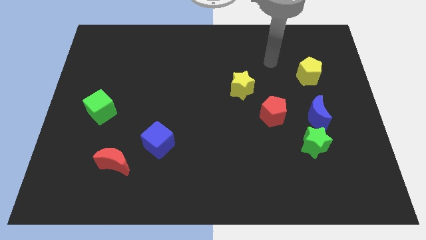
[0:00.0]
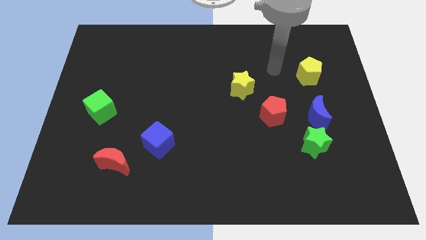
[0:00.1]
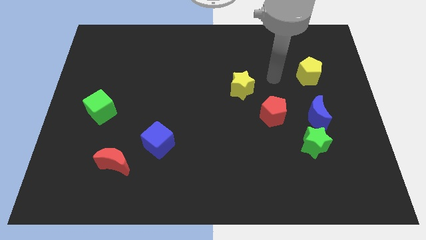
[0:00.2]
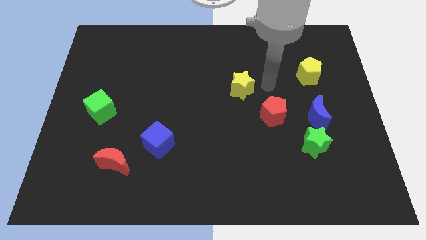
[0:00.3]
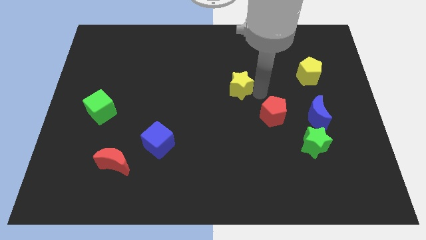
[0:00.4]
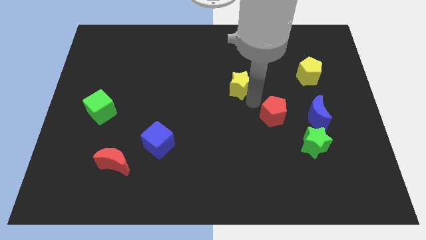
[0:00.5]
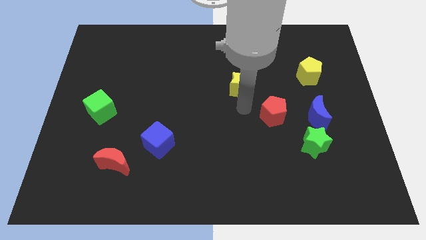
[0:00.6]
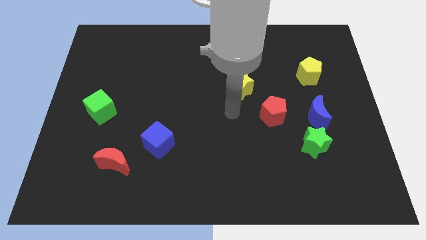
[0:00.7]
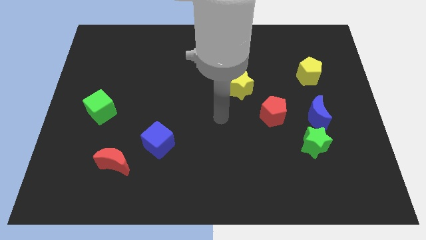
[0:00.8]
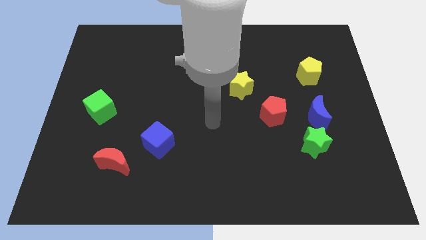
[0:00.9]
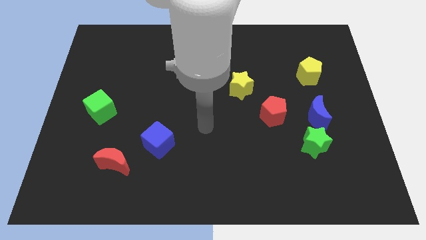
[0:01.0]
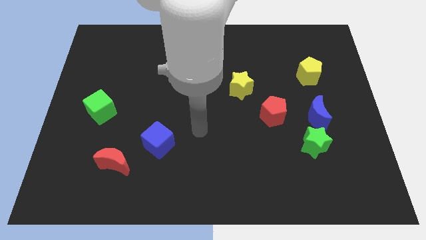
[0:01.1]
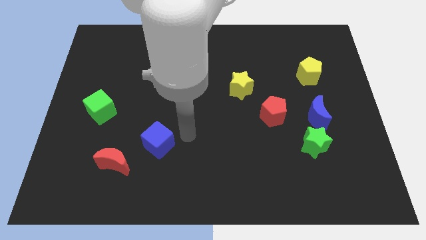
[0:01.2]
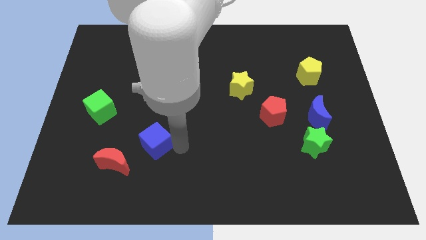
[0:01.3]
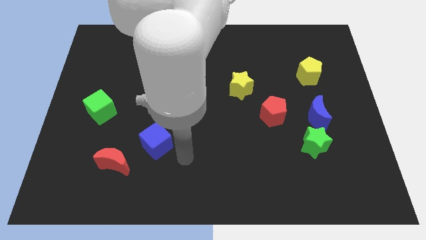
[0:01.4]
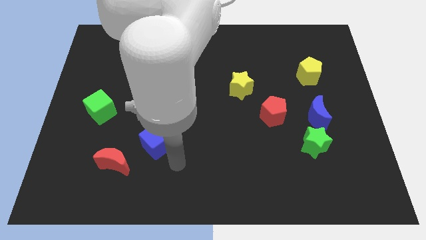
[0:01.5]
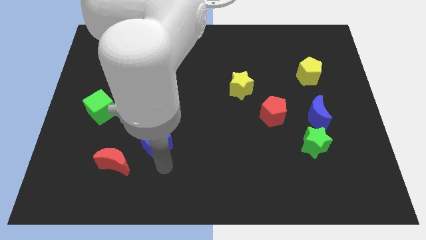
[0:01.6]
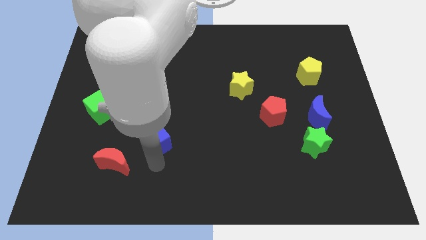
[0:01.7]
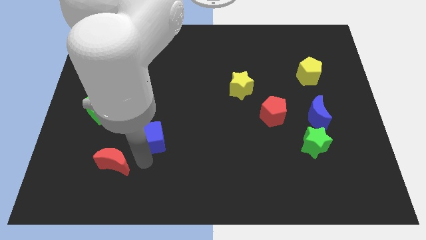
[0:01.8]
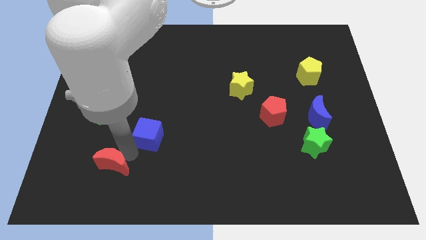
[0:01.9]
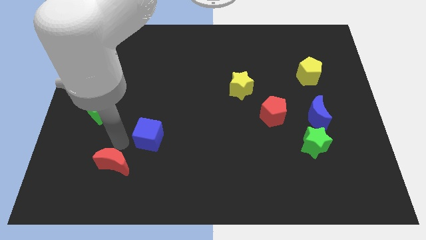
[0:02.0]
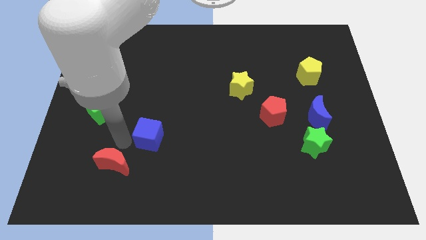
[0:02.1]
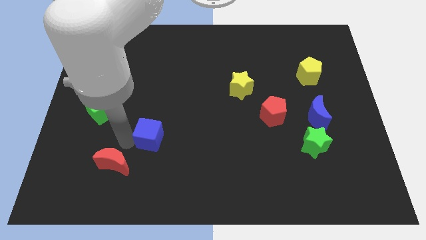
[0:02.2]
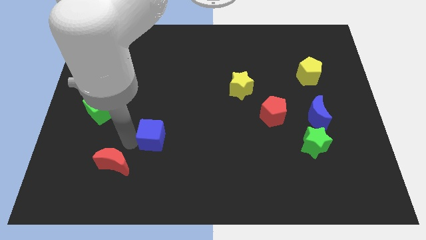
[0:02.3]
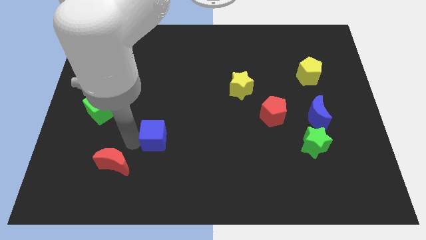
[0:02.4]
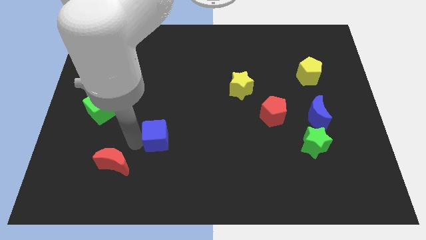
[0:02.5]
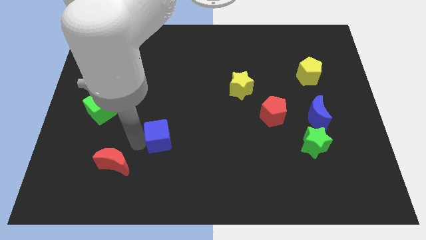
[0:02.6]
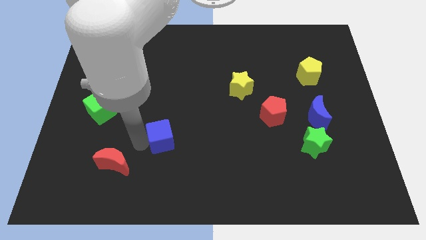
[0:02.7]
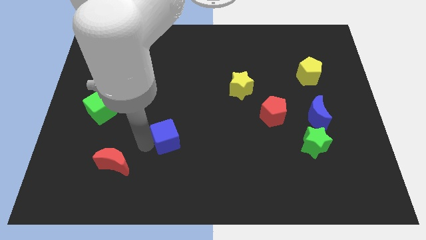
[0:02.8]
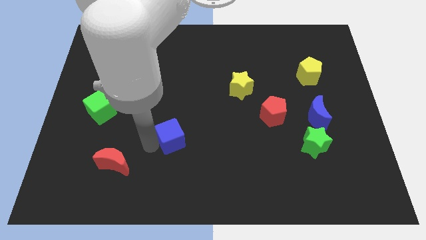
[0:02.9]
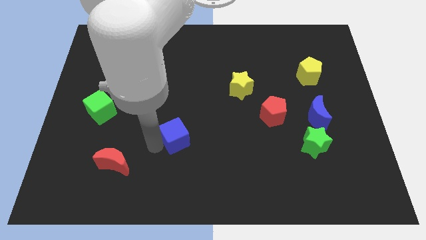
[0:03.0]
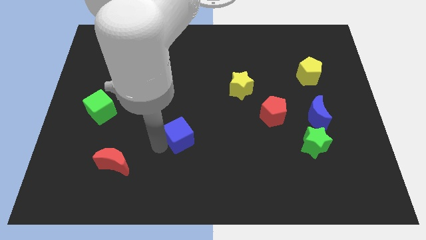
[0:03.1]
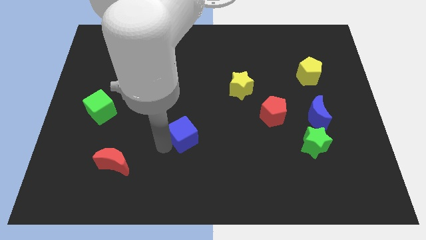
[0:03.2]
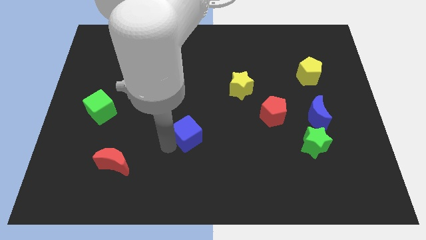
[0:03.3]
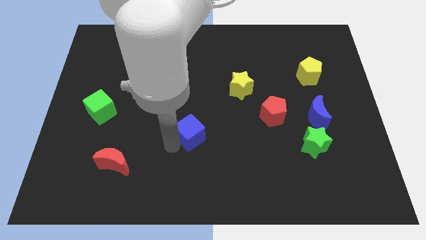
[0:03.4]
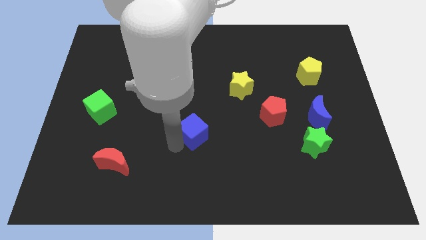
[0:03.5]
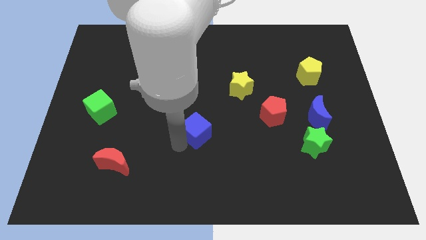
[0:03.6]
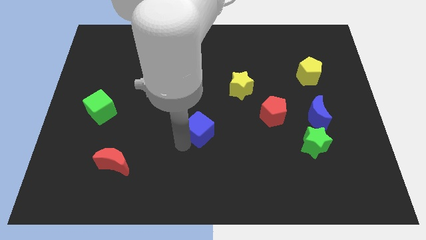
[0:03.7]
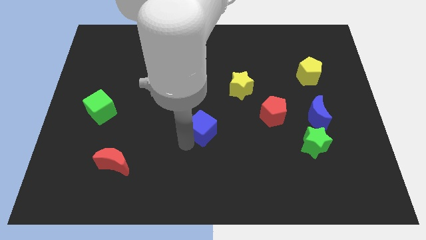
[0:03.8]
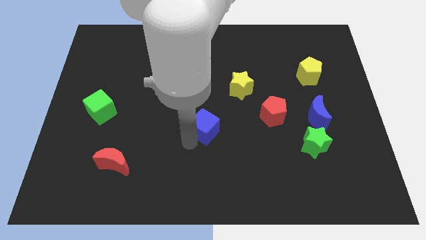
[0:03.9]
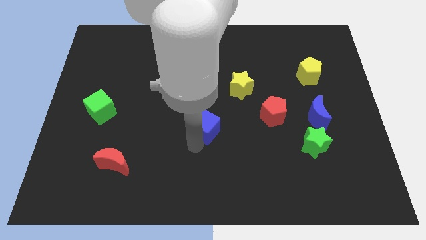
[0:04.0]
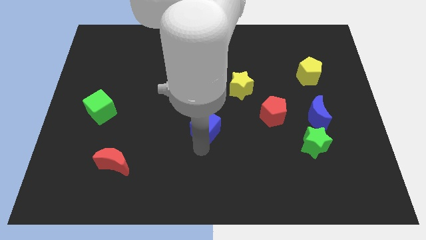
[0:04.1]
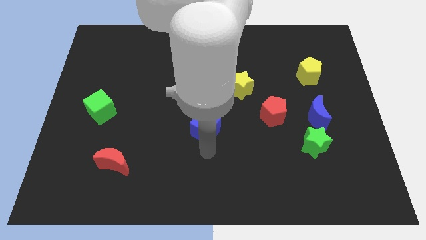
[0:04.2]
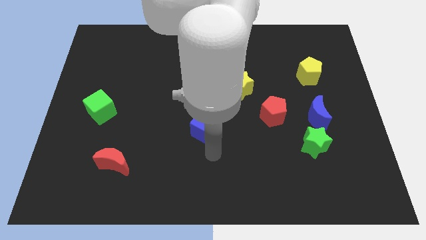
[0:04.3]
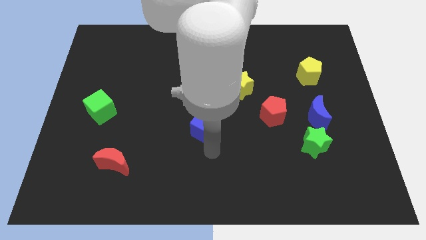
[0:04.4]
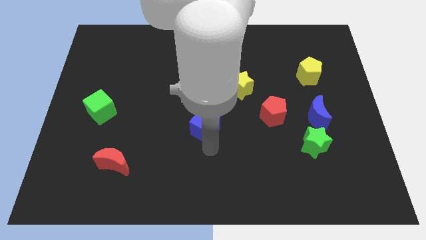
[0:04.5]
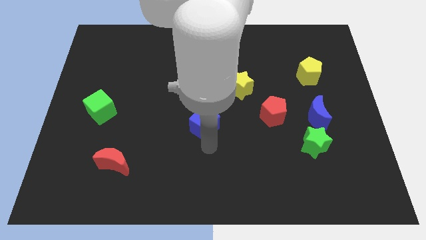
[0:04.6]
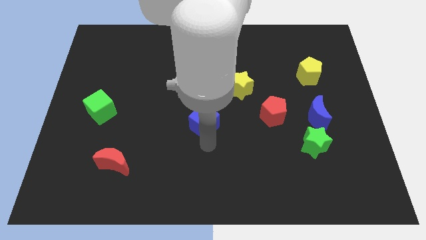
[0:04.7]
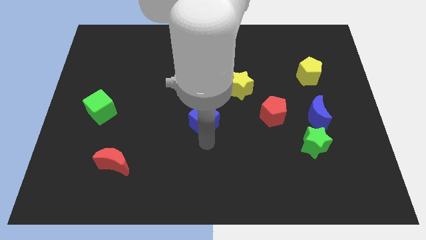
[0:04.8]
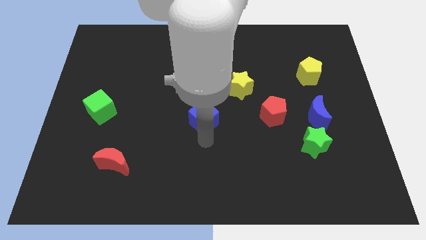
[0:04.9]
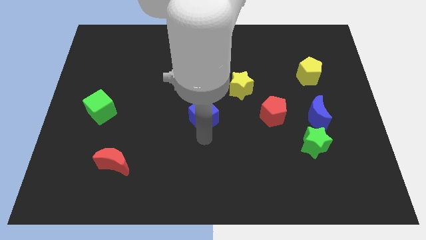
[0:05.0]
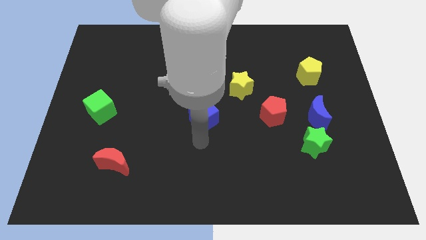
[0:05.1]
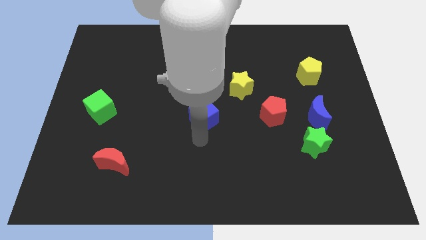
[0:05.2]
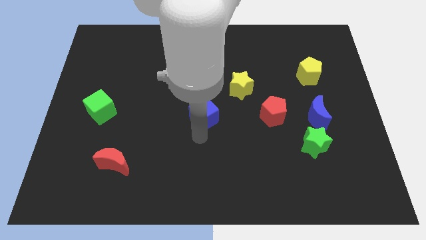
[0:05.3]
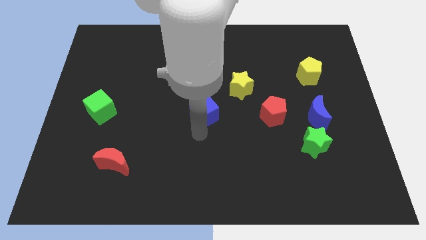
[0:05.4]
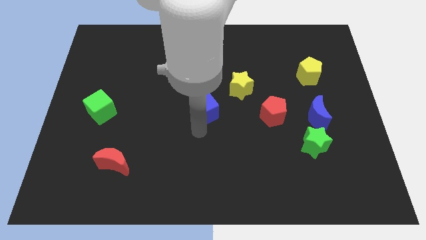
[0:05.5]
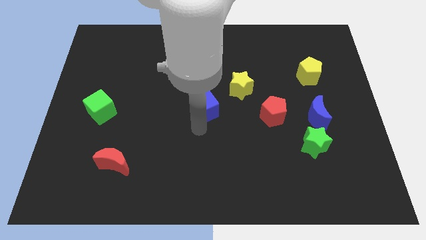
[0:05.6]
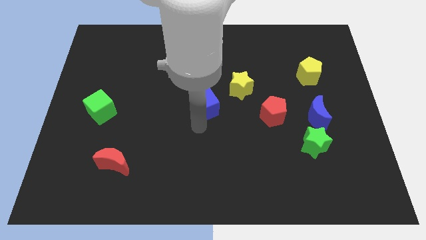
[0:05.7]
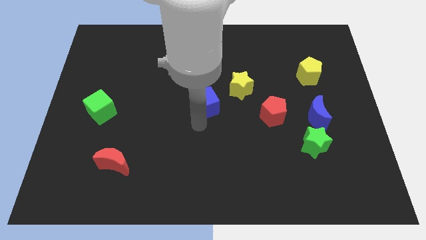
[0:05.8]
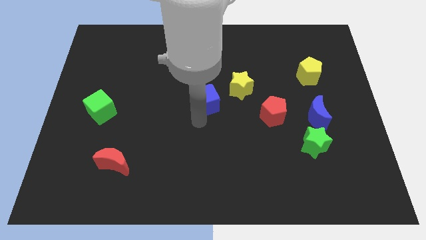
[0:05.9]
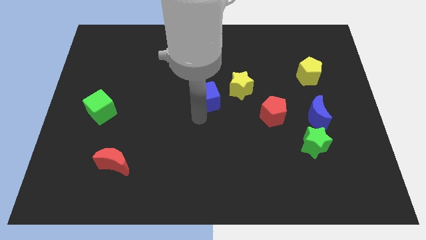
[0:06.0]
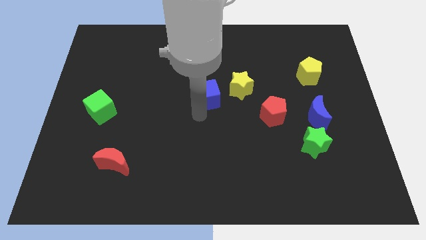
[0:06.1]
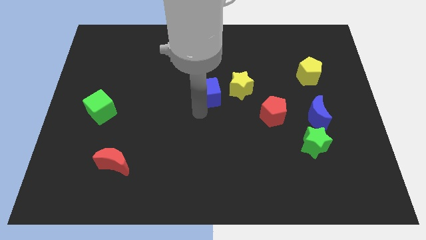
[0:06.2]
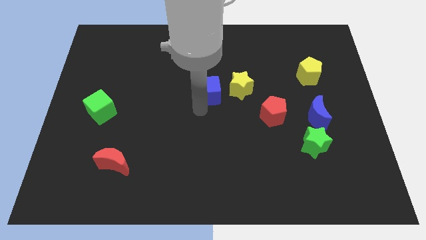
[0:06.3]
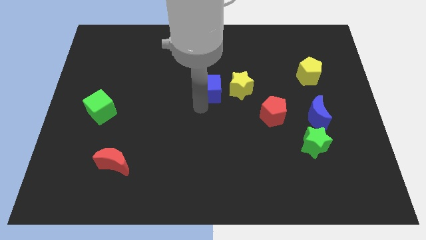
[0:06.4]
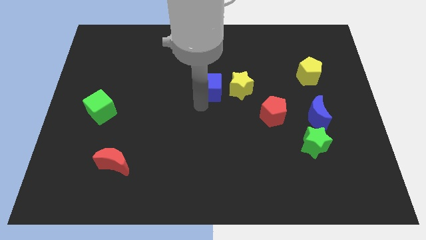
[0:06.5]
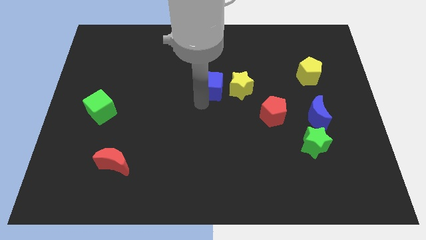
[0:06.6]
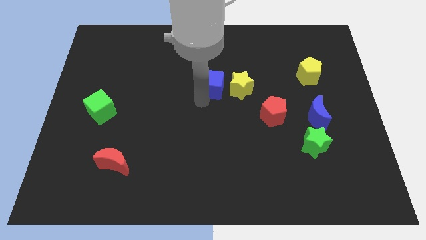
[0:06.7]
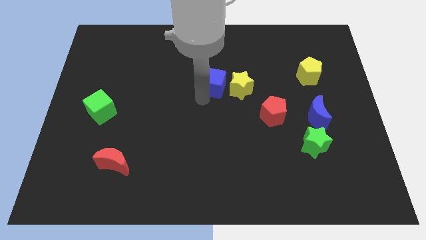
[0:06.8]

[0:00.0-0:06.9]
push the blue cube diagonally upwards and to the right

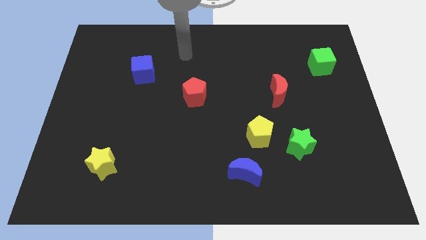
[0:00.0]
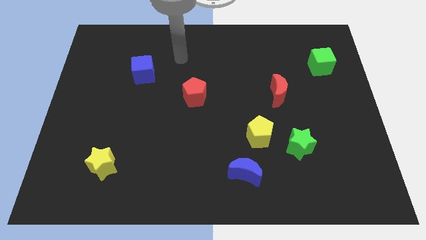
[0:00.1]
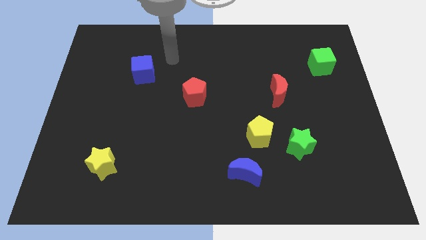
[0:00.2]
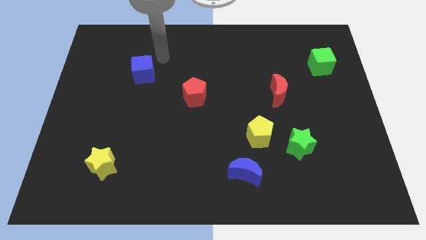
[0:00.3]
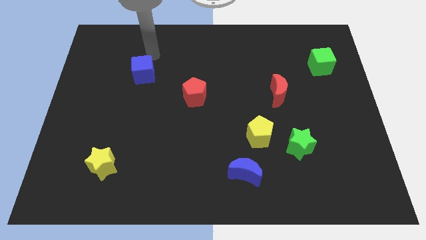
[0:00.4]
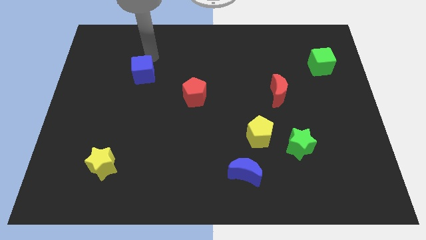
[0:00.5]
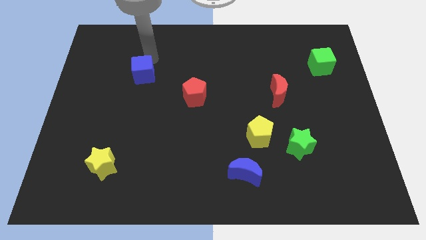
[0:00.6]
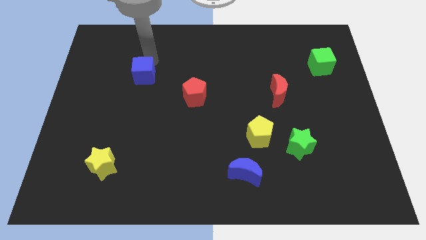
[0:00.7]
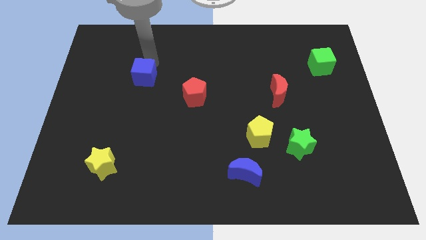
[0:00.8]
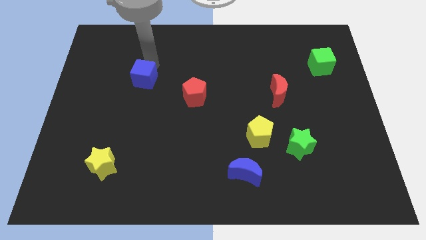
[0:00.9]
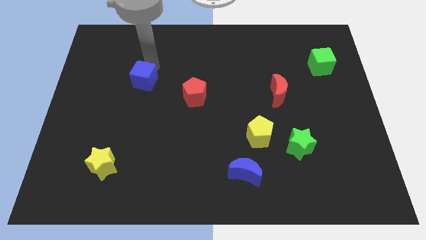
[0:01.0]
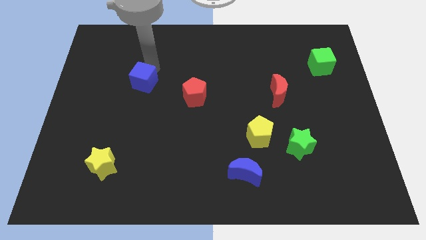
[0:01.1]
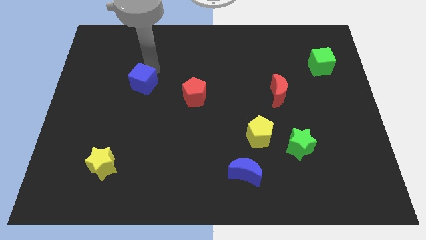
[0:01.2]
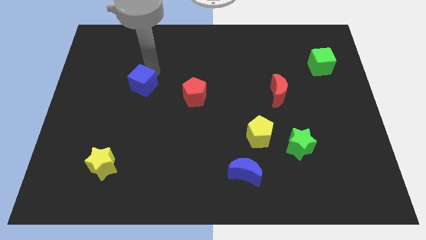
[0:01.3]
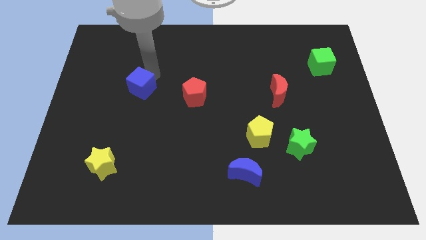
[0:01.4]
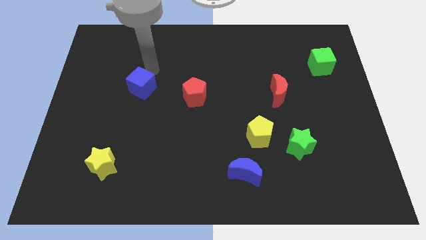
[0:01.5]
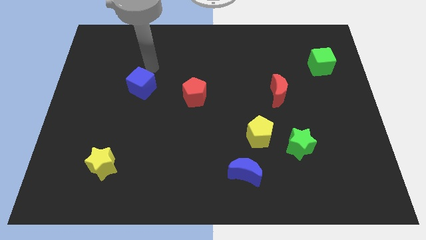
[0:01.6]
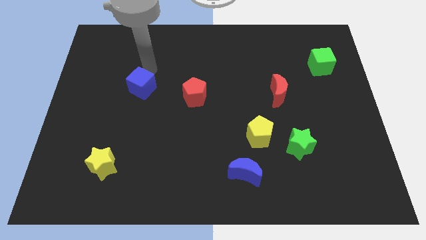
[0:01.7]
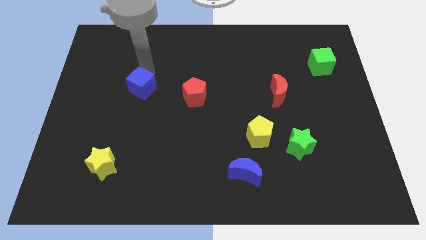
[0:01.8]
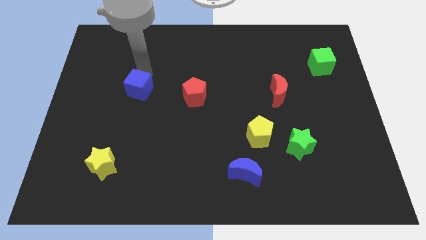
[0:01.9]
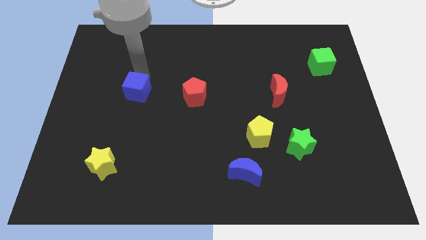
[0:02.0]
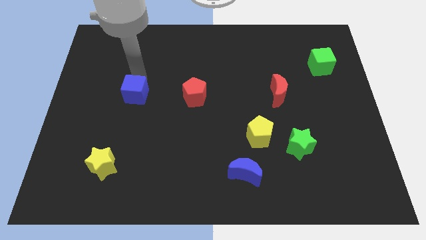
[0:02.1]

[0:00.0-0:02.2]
push the blue cube downwards a little bit
